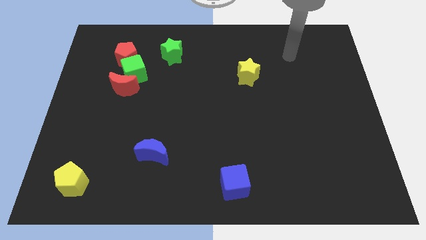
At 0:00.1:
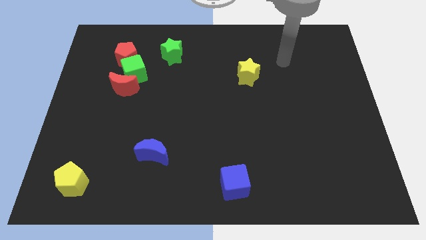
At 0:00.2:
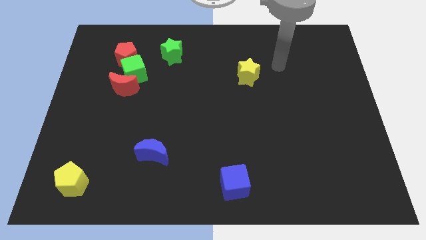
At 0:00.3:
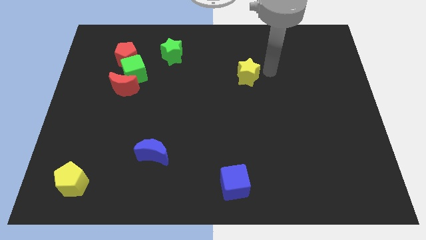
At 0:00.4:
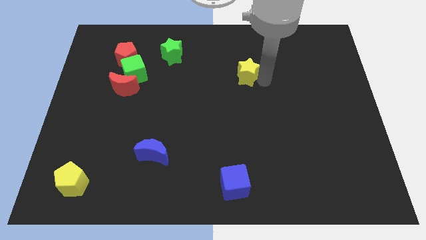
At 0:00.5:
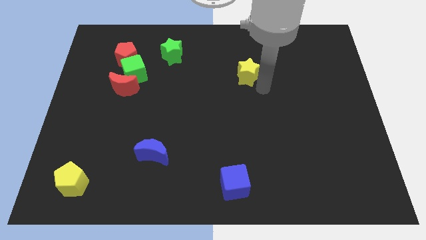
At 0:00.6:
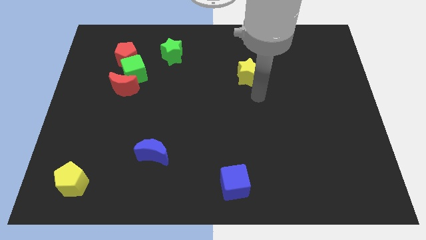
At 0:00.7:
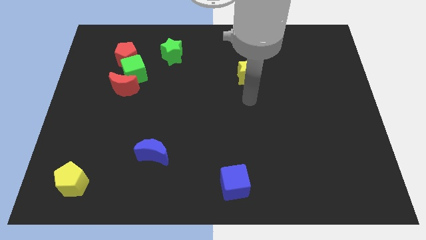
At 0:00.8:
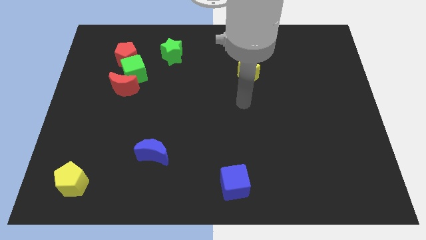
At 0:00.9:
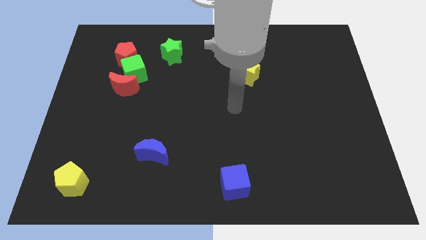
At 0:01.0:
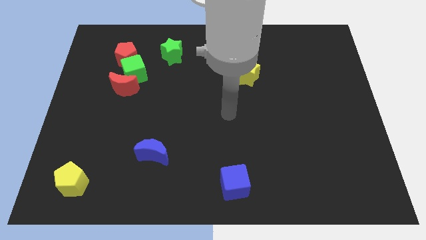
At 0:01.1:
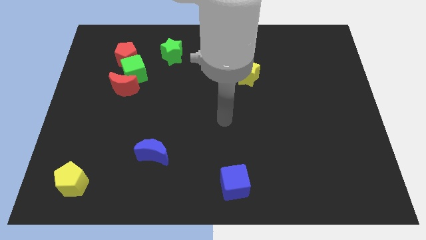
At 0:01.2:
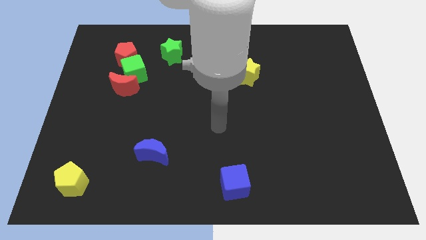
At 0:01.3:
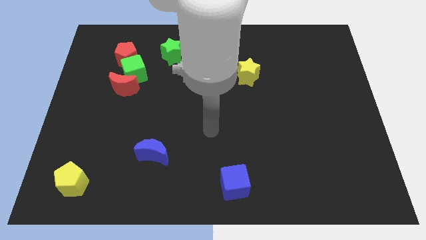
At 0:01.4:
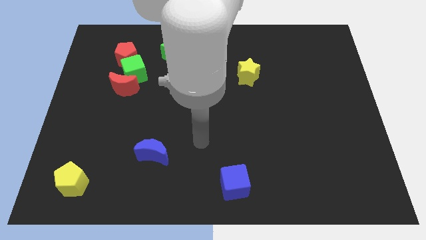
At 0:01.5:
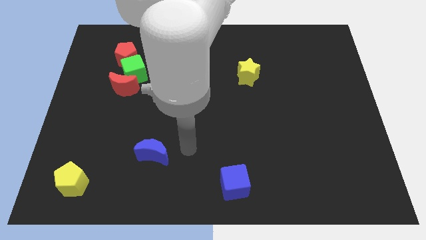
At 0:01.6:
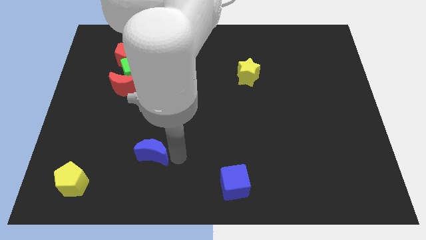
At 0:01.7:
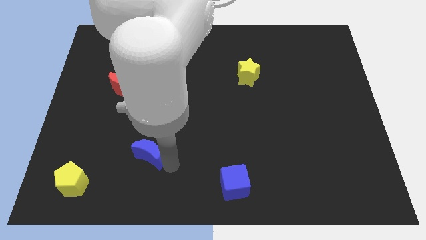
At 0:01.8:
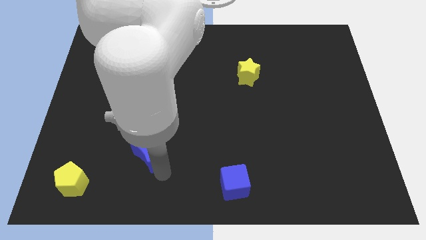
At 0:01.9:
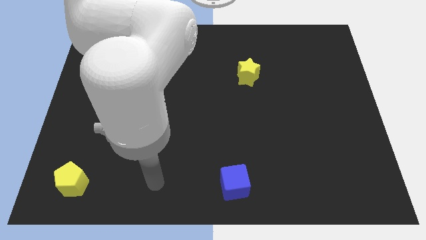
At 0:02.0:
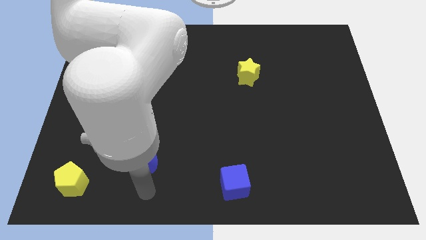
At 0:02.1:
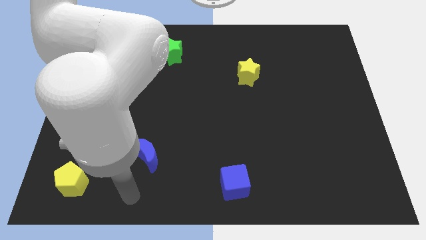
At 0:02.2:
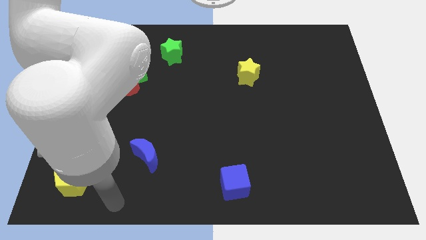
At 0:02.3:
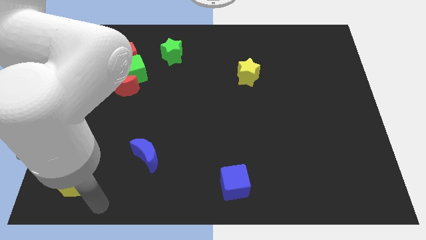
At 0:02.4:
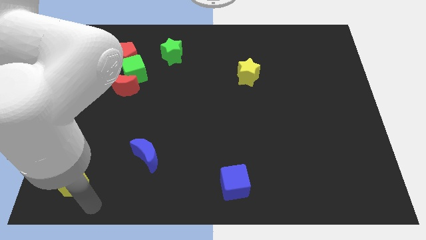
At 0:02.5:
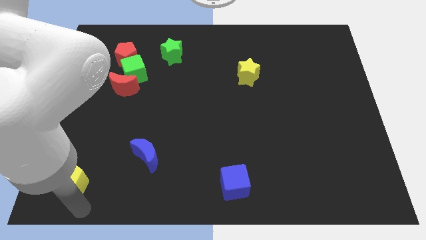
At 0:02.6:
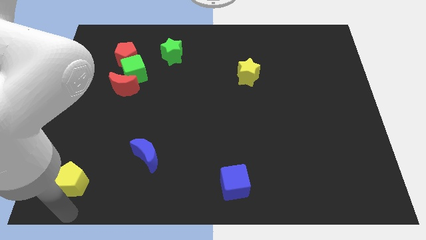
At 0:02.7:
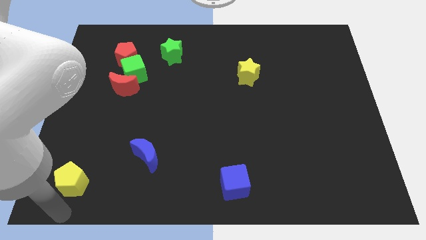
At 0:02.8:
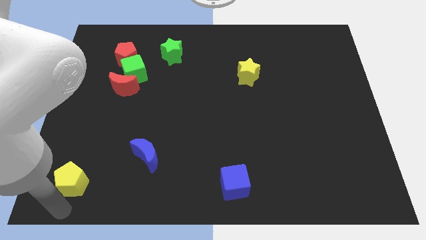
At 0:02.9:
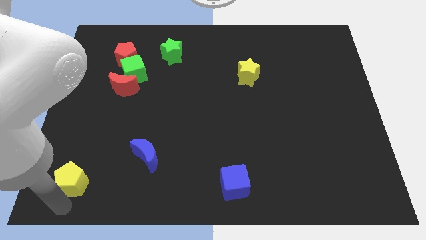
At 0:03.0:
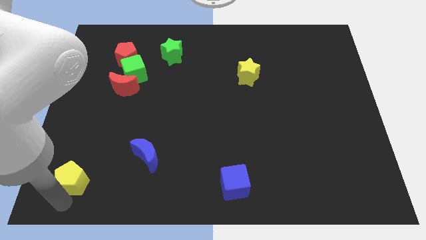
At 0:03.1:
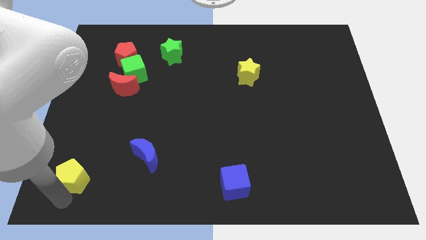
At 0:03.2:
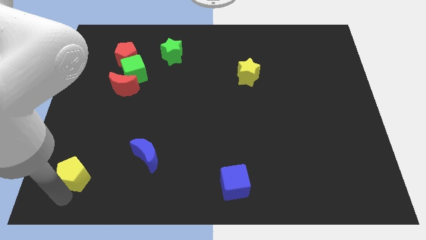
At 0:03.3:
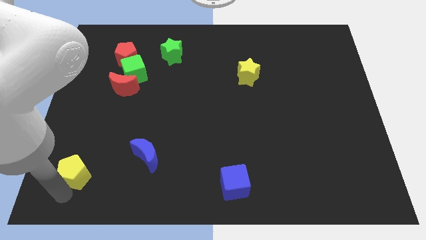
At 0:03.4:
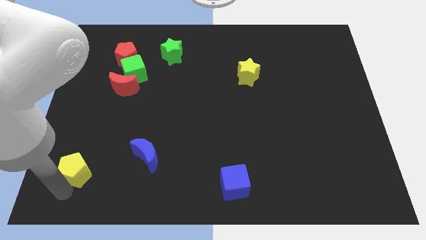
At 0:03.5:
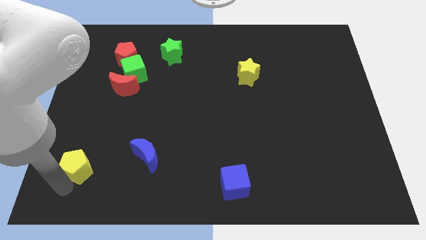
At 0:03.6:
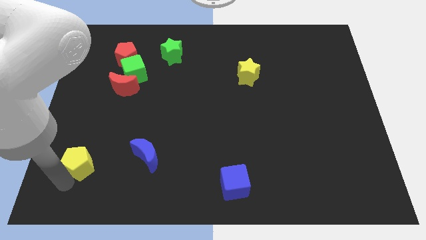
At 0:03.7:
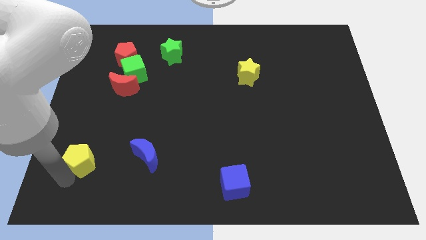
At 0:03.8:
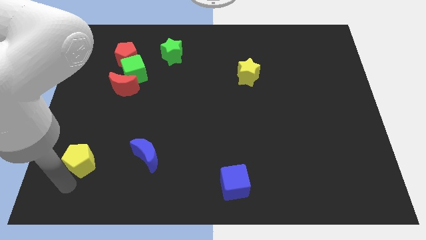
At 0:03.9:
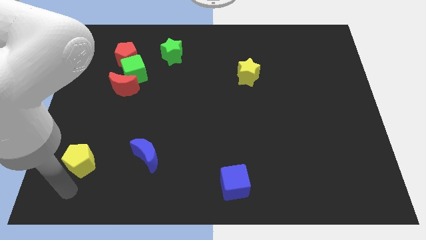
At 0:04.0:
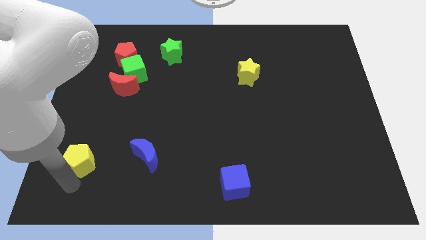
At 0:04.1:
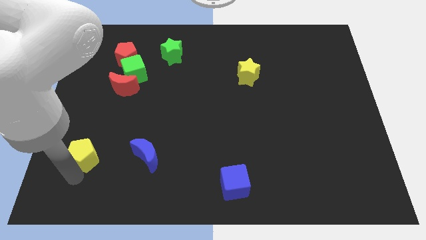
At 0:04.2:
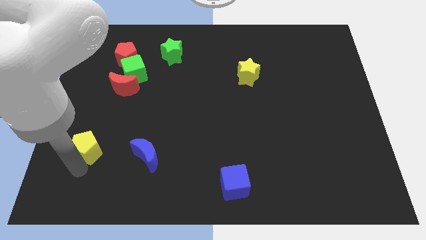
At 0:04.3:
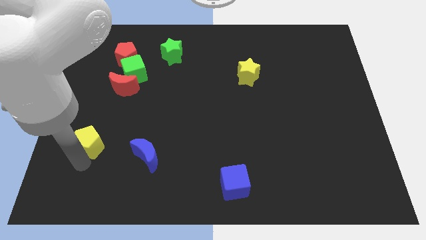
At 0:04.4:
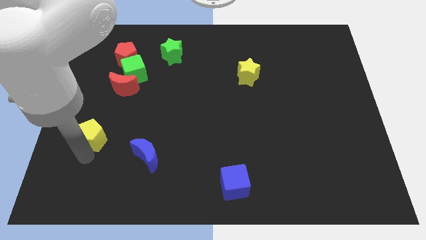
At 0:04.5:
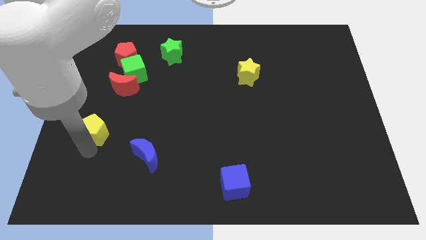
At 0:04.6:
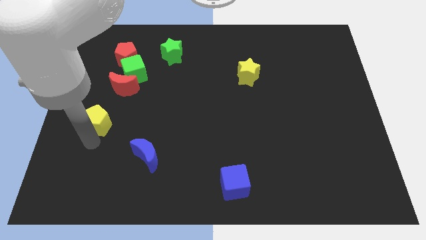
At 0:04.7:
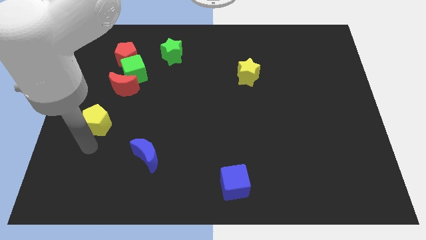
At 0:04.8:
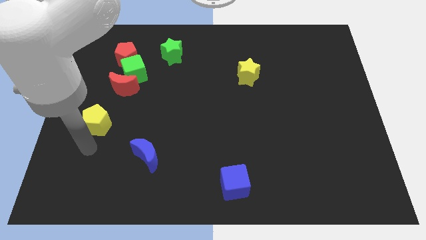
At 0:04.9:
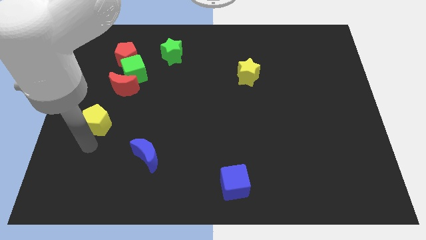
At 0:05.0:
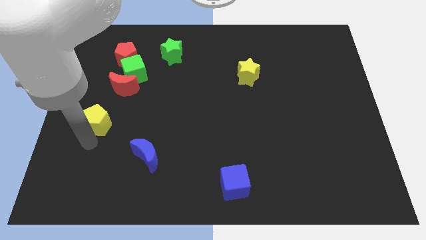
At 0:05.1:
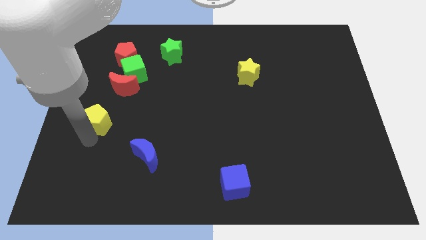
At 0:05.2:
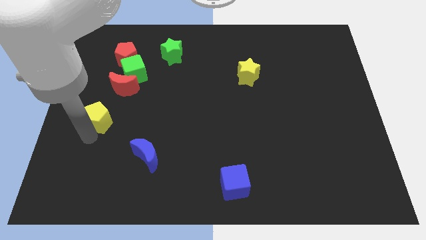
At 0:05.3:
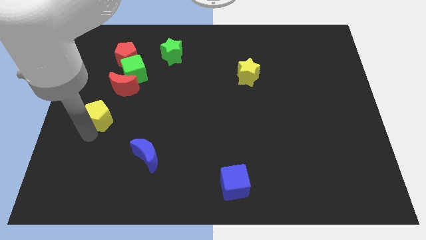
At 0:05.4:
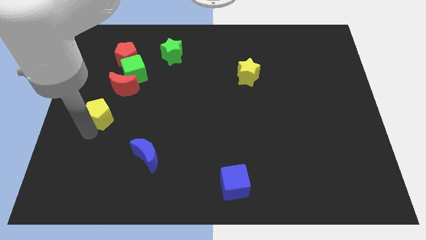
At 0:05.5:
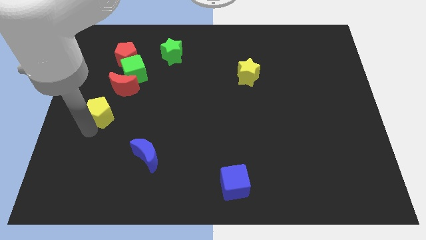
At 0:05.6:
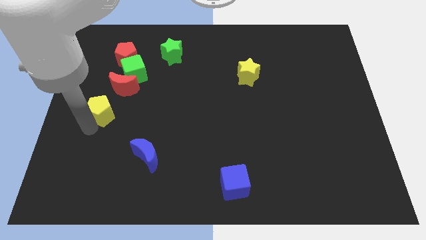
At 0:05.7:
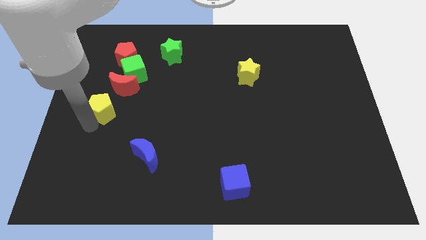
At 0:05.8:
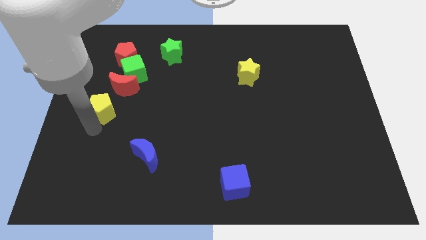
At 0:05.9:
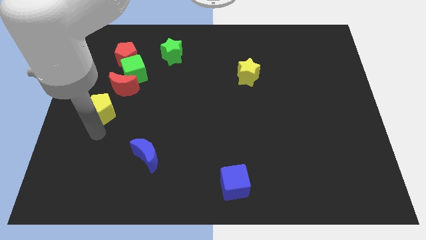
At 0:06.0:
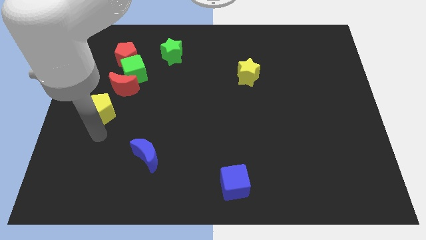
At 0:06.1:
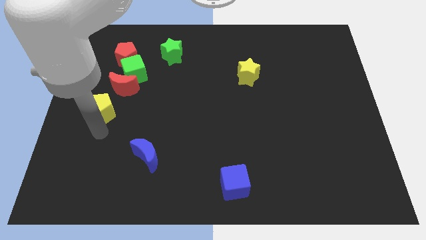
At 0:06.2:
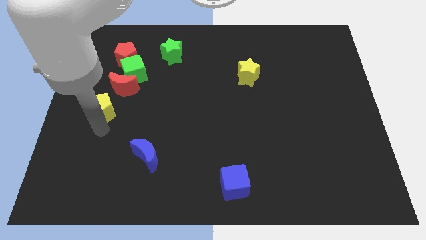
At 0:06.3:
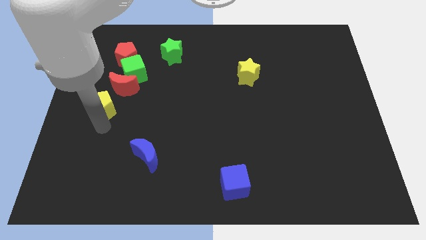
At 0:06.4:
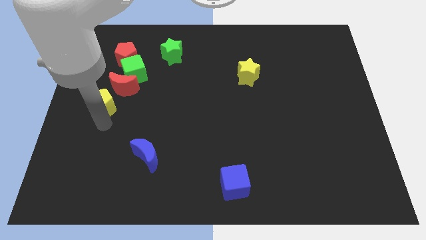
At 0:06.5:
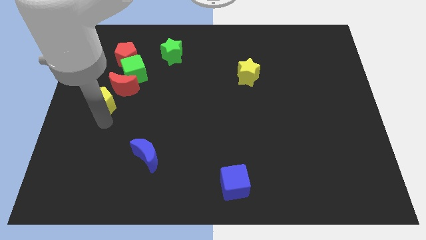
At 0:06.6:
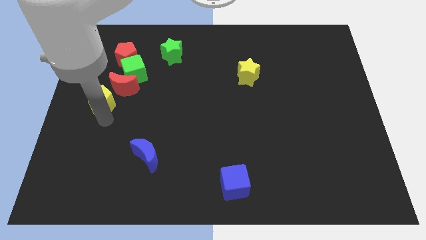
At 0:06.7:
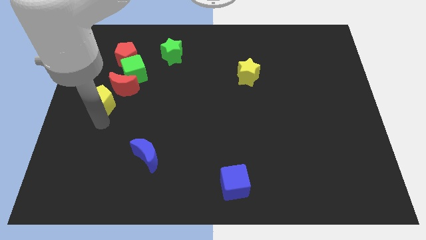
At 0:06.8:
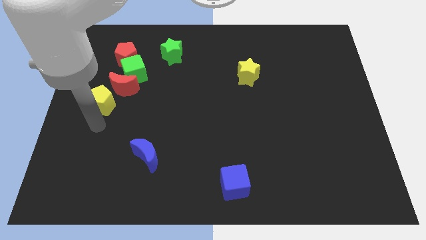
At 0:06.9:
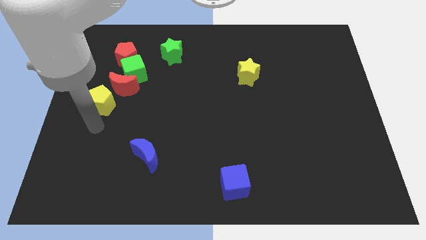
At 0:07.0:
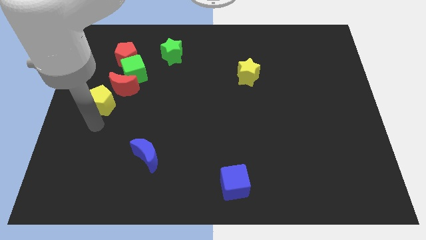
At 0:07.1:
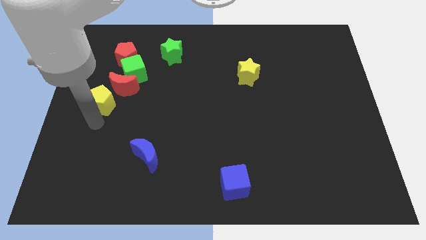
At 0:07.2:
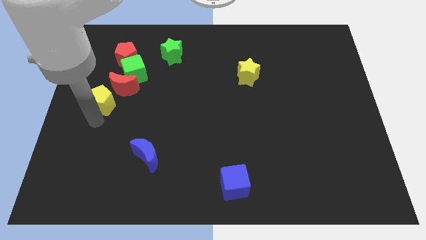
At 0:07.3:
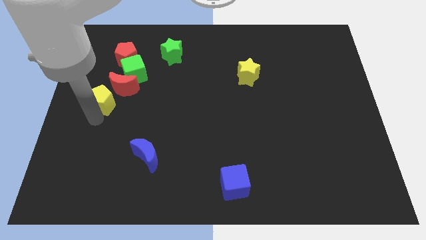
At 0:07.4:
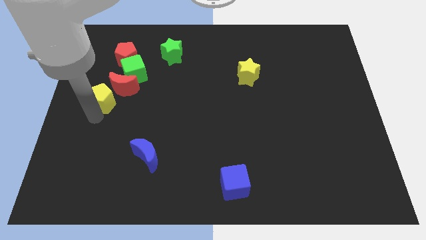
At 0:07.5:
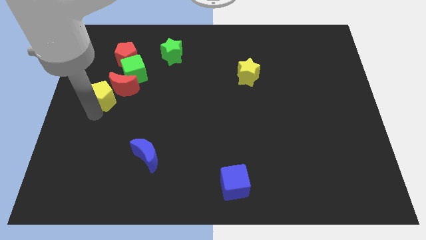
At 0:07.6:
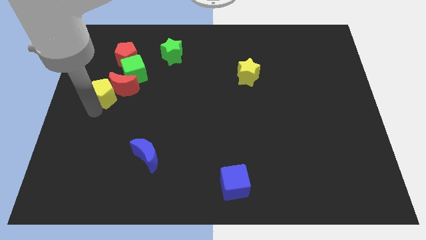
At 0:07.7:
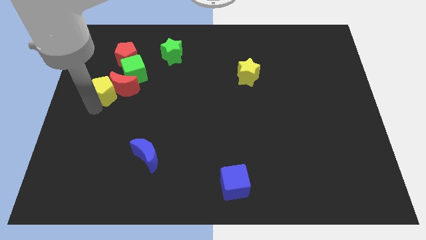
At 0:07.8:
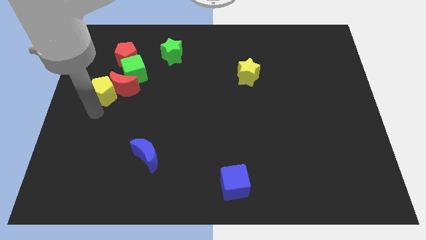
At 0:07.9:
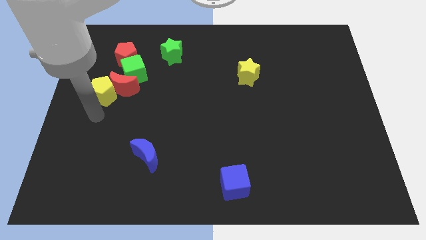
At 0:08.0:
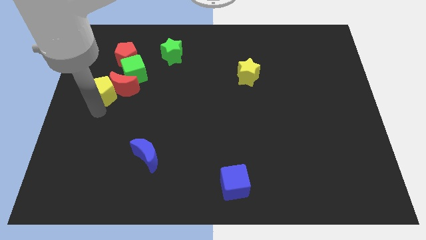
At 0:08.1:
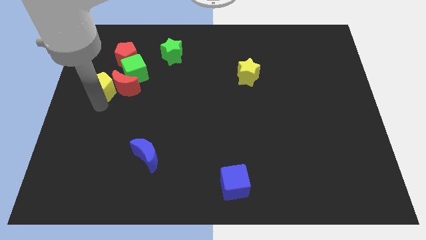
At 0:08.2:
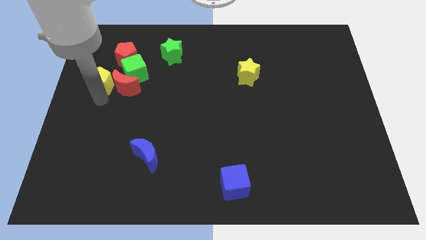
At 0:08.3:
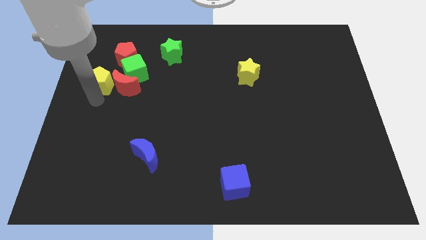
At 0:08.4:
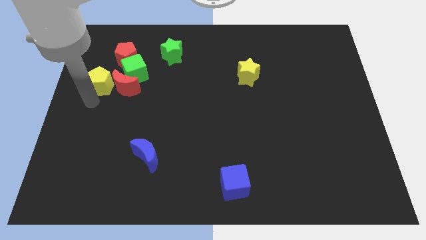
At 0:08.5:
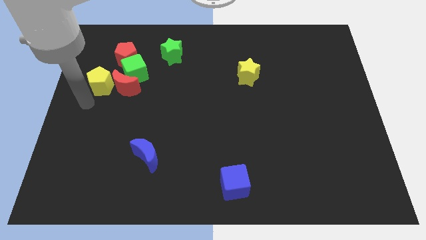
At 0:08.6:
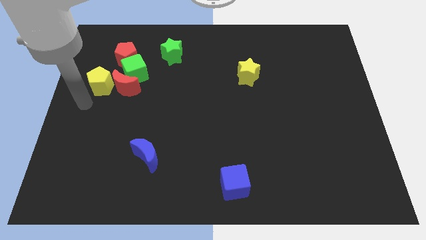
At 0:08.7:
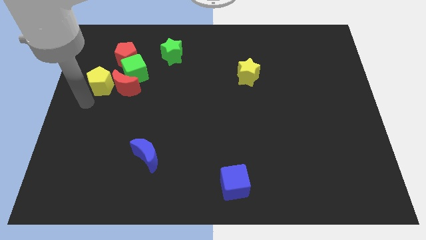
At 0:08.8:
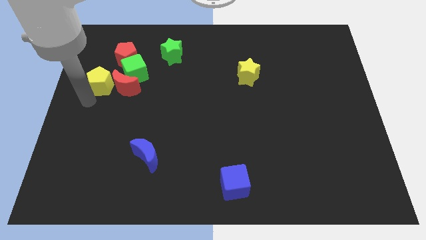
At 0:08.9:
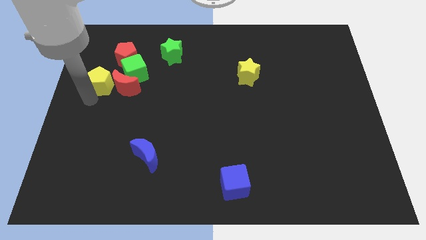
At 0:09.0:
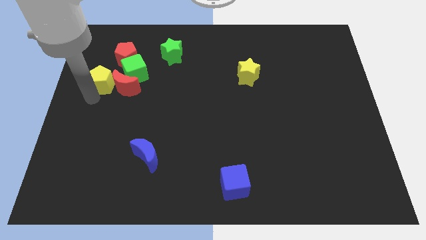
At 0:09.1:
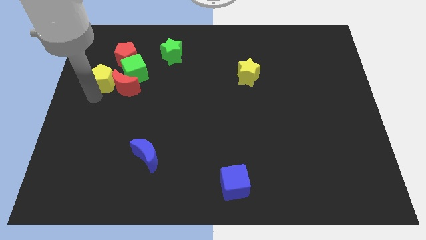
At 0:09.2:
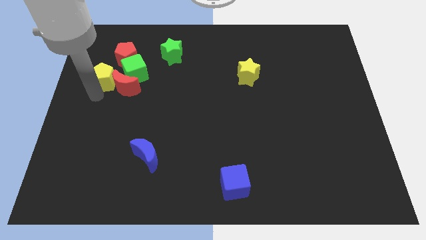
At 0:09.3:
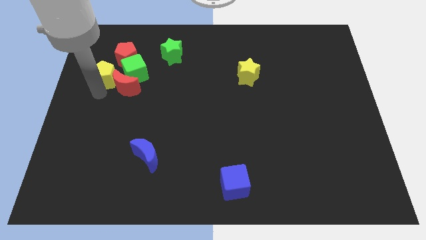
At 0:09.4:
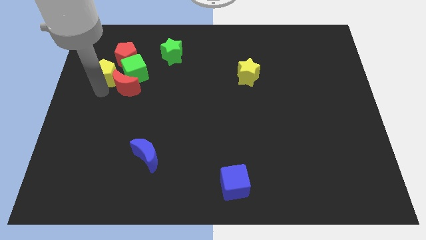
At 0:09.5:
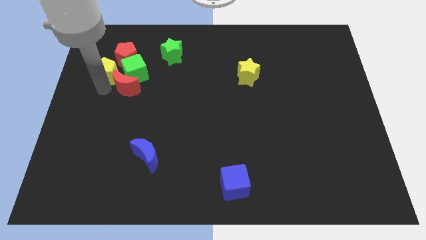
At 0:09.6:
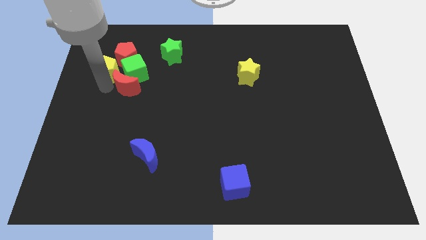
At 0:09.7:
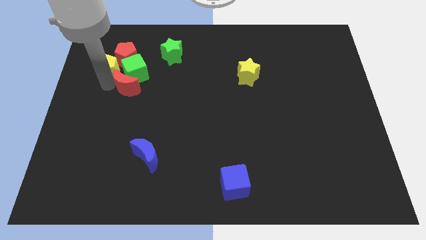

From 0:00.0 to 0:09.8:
move the yellow pentagon to the top left side of the green cube
